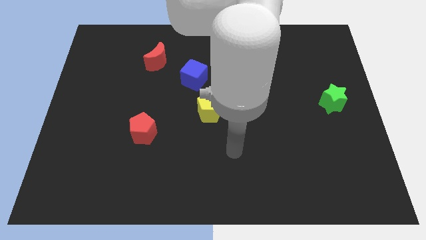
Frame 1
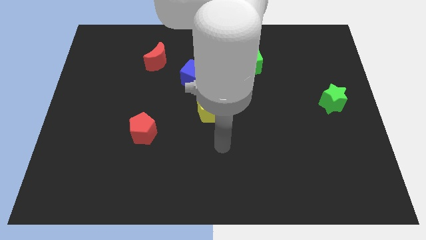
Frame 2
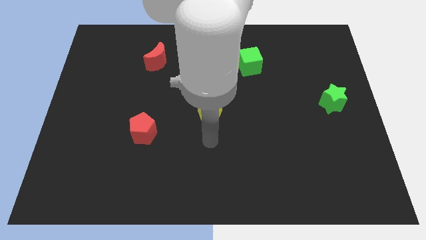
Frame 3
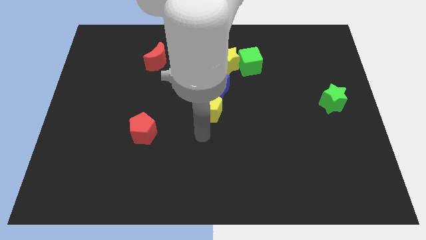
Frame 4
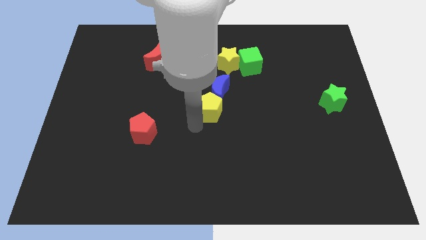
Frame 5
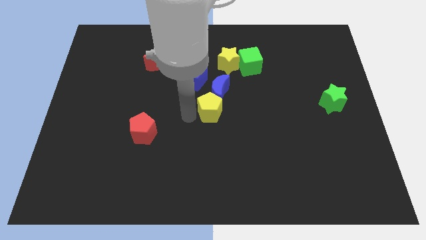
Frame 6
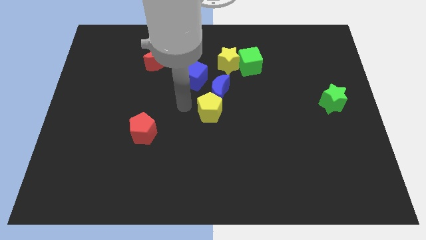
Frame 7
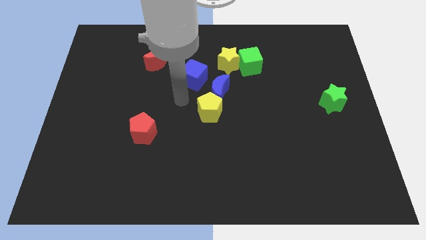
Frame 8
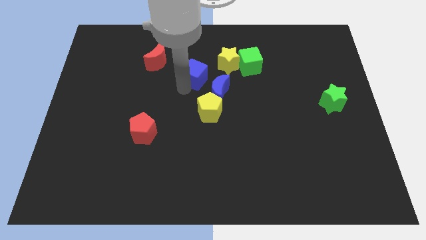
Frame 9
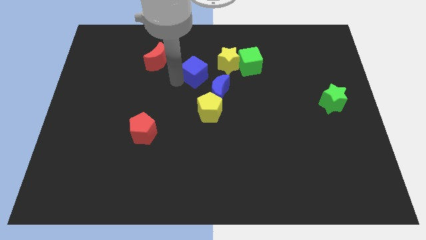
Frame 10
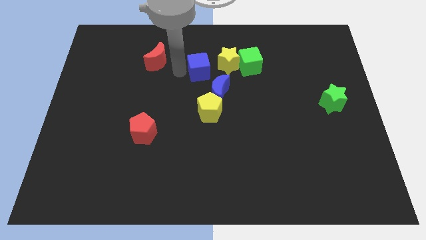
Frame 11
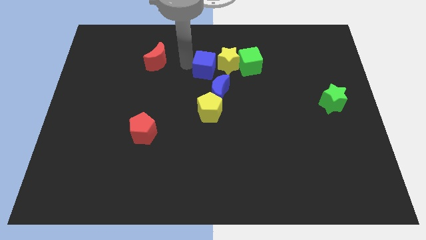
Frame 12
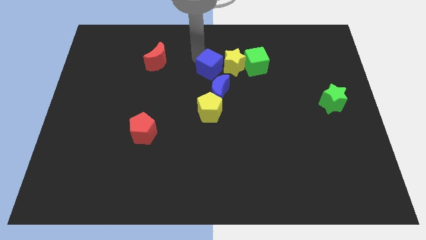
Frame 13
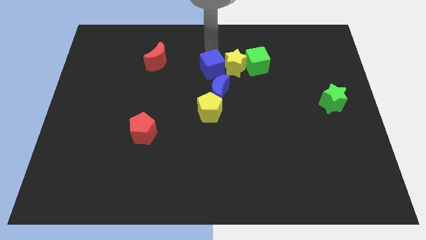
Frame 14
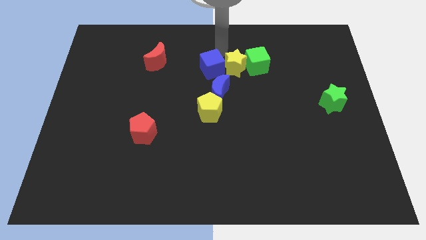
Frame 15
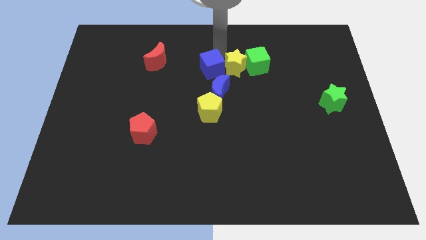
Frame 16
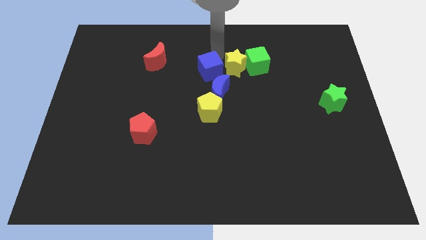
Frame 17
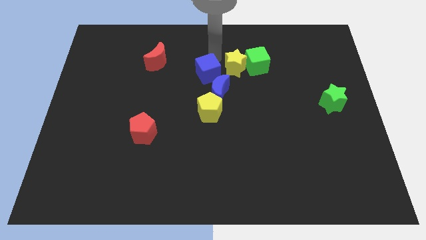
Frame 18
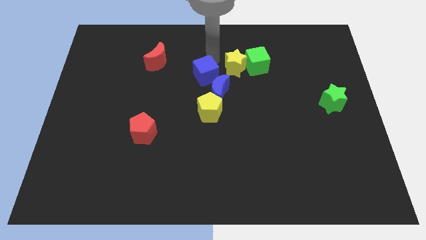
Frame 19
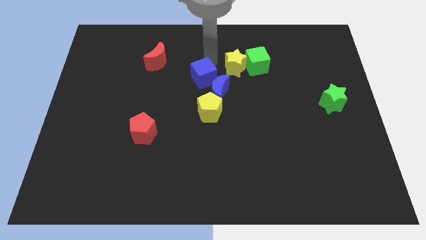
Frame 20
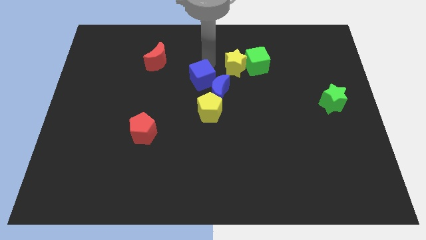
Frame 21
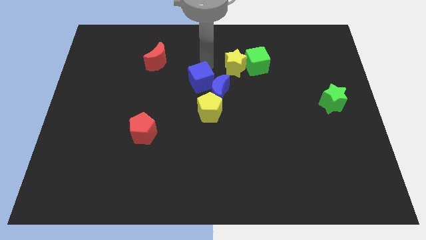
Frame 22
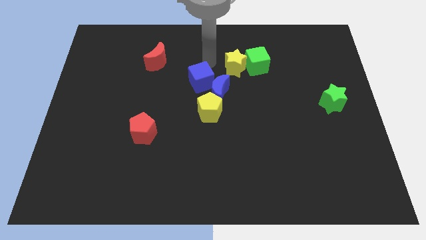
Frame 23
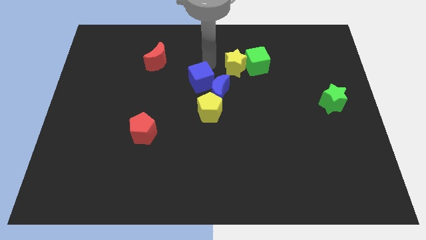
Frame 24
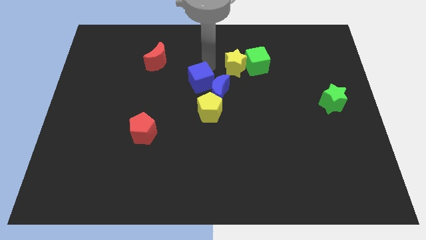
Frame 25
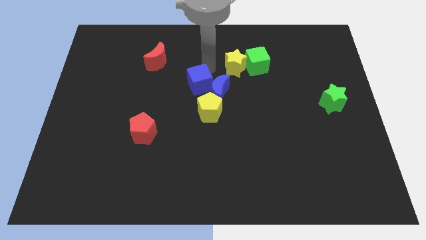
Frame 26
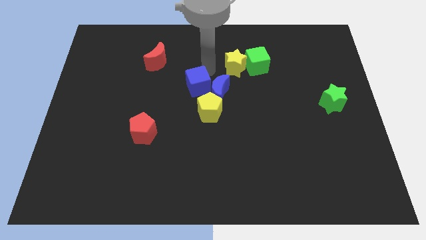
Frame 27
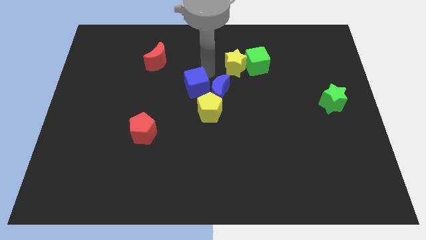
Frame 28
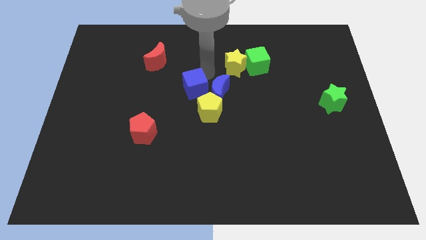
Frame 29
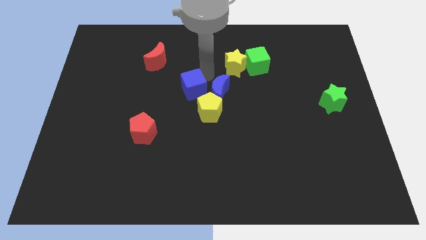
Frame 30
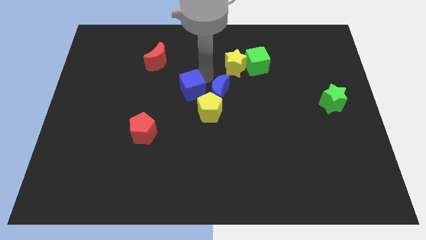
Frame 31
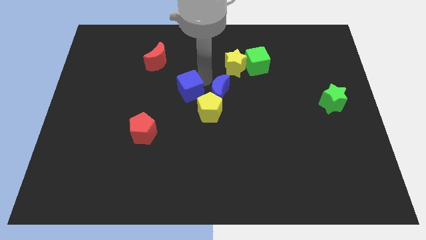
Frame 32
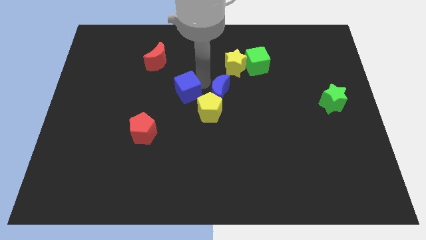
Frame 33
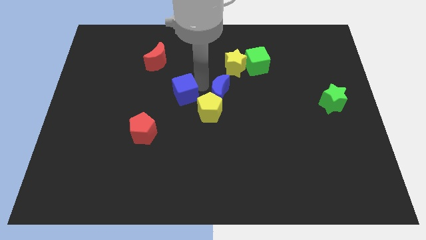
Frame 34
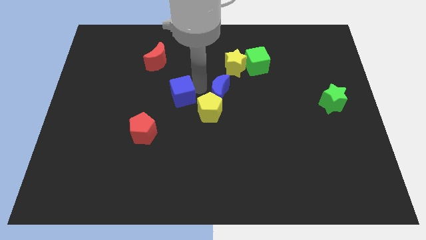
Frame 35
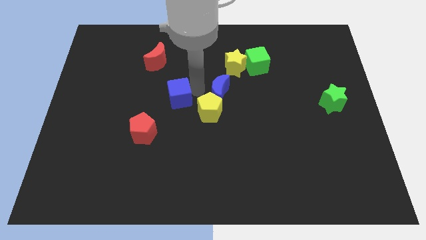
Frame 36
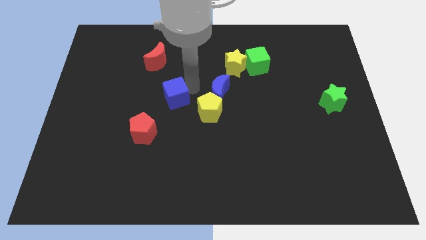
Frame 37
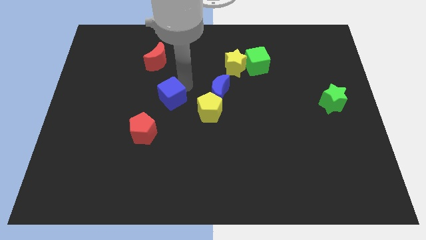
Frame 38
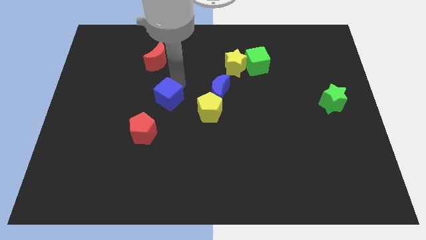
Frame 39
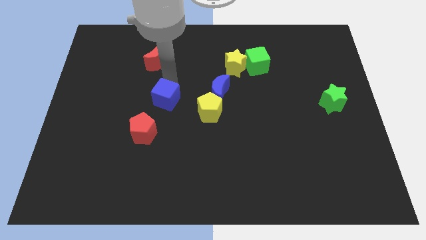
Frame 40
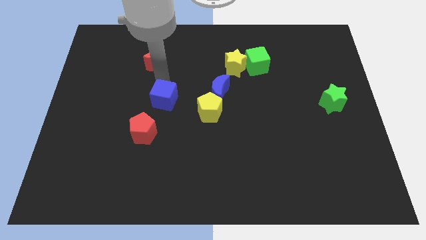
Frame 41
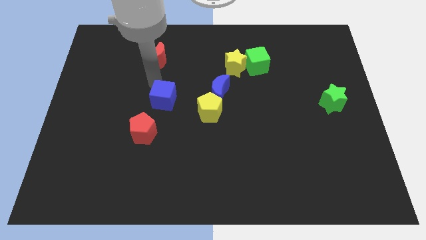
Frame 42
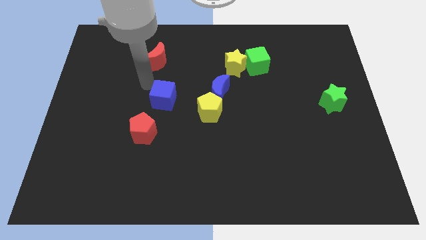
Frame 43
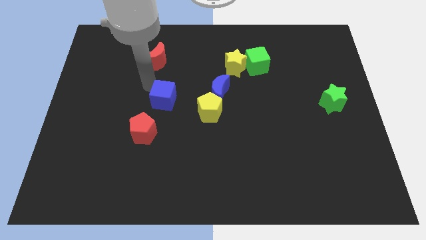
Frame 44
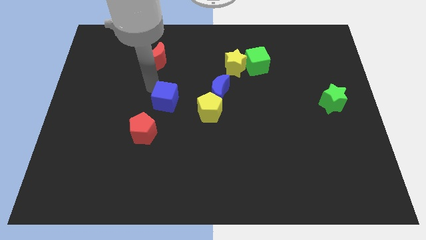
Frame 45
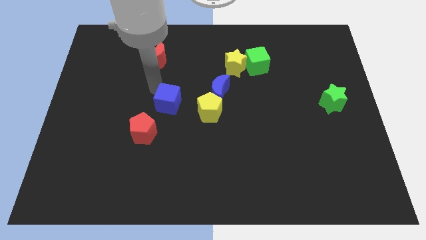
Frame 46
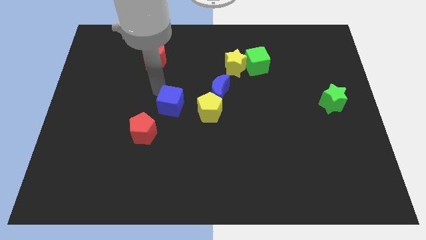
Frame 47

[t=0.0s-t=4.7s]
push the blue cube down a little

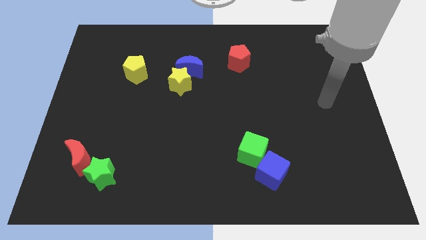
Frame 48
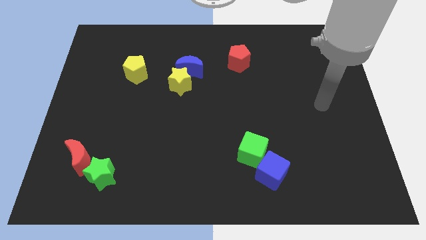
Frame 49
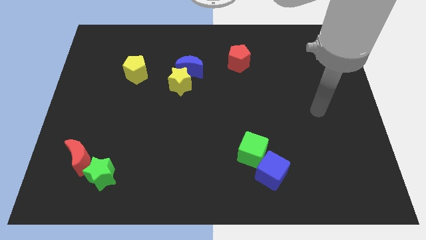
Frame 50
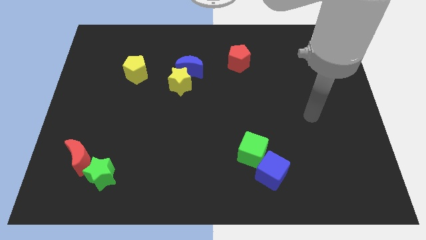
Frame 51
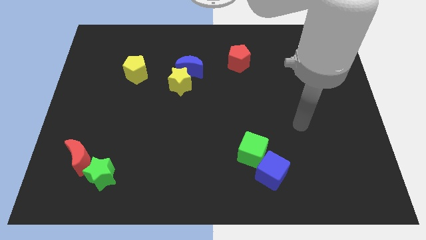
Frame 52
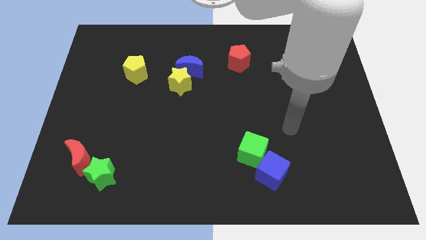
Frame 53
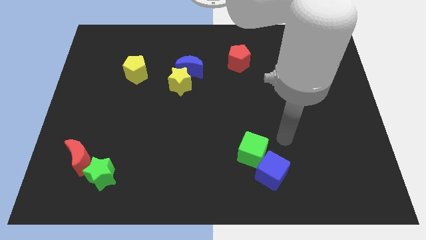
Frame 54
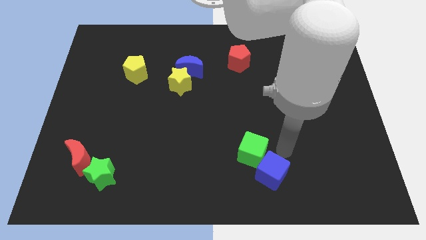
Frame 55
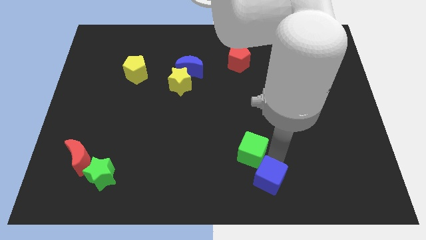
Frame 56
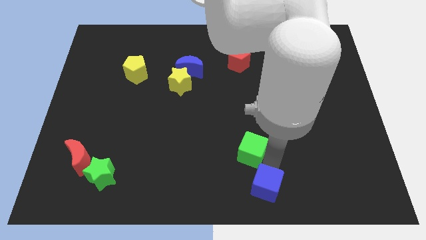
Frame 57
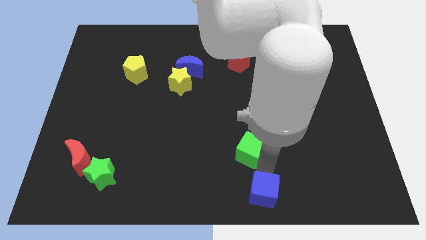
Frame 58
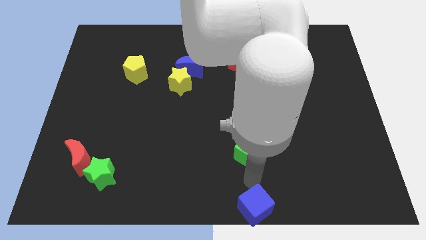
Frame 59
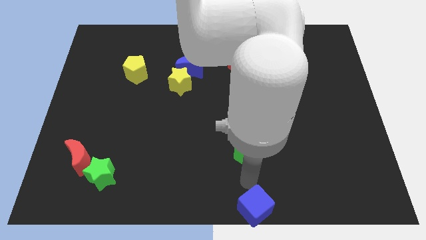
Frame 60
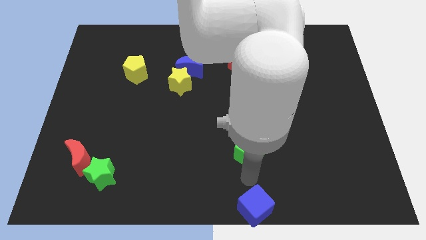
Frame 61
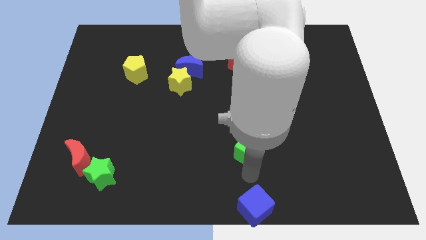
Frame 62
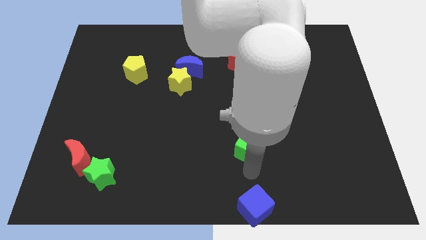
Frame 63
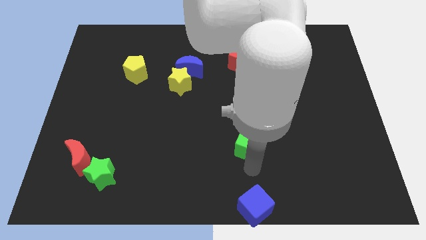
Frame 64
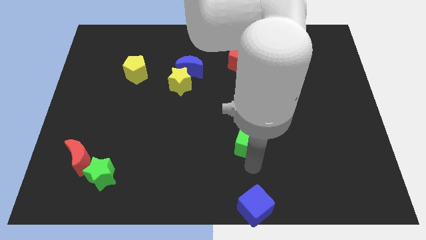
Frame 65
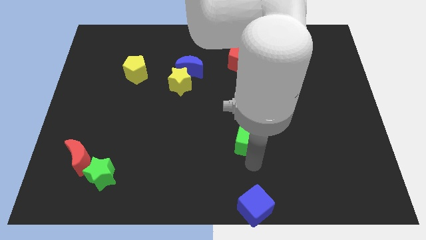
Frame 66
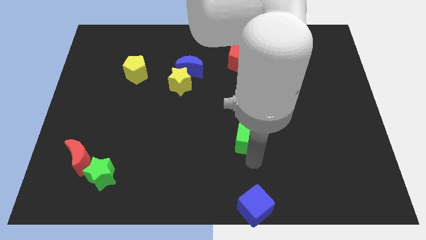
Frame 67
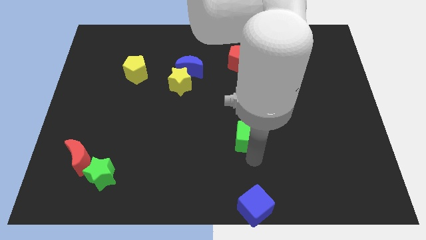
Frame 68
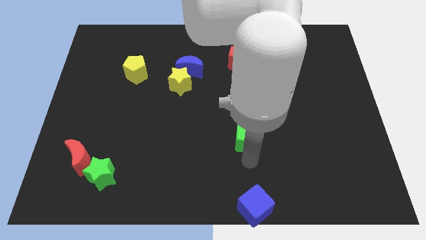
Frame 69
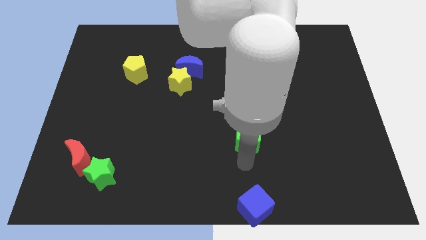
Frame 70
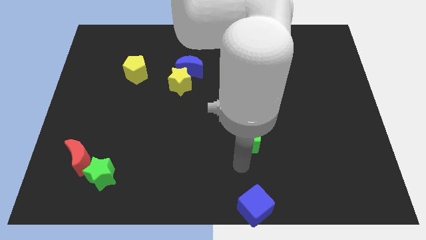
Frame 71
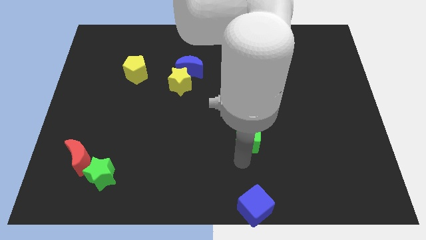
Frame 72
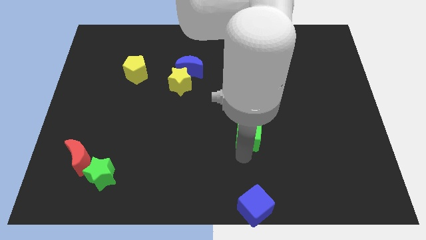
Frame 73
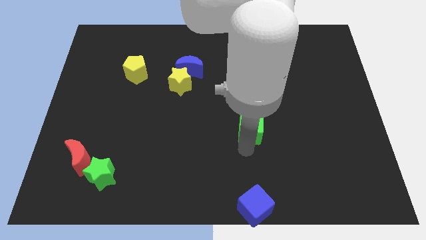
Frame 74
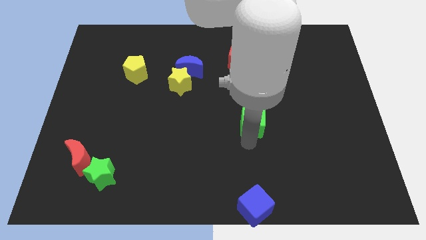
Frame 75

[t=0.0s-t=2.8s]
slide the green cube somewhat up

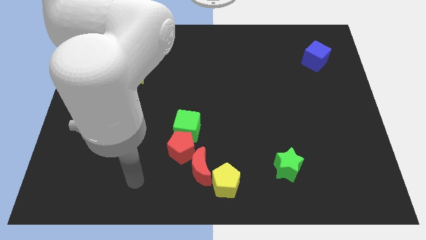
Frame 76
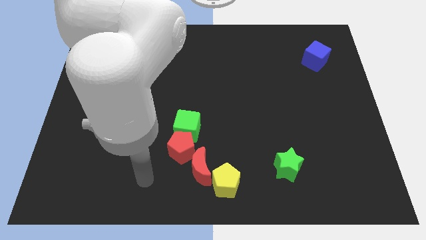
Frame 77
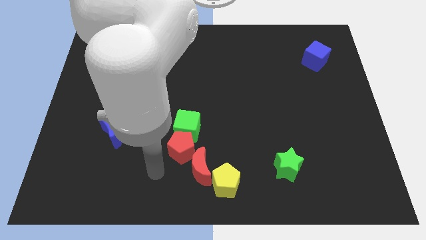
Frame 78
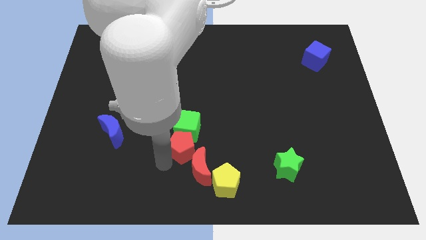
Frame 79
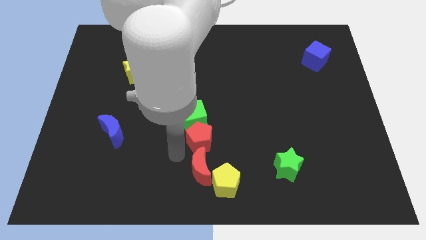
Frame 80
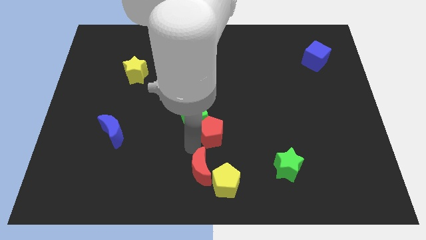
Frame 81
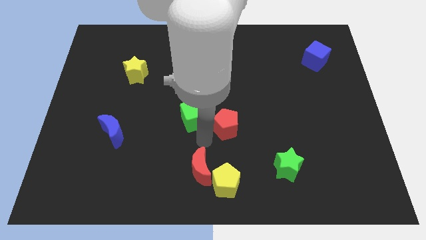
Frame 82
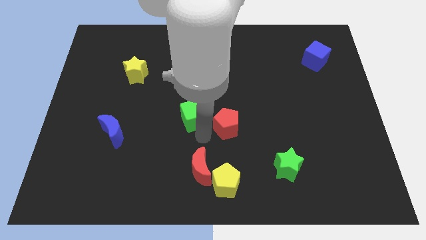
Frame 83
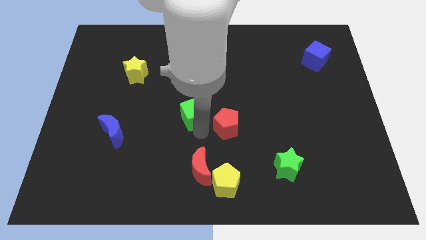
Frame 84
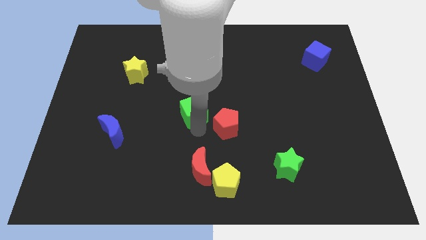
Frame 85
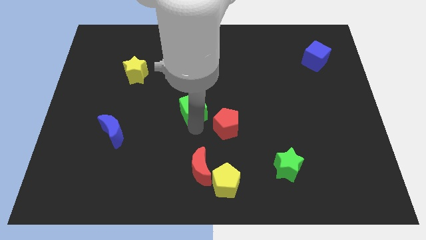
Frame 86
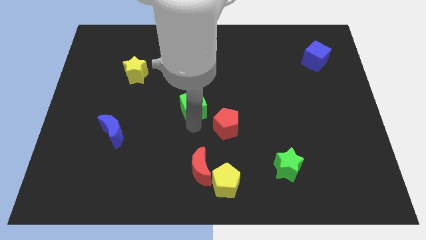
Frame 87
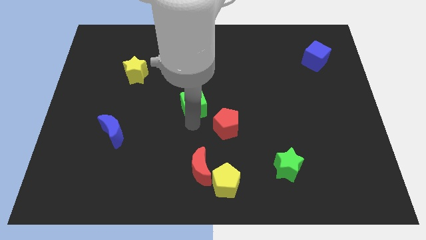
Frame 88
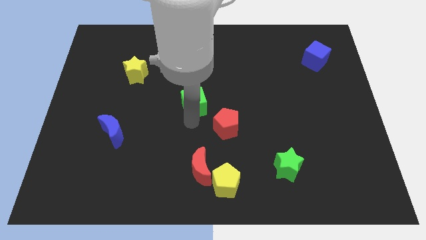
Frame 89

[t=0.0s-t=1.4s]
move the green cube somewhat upwards
